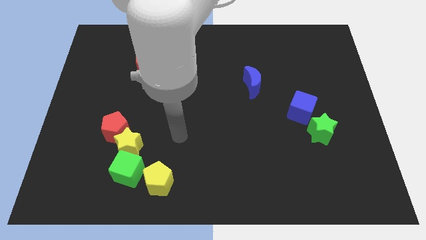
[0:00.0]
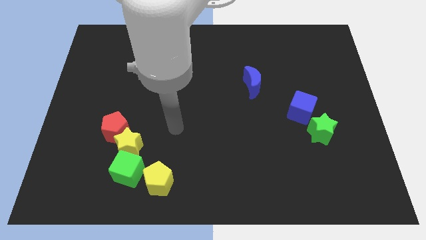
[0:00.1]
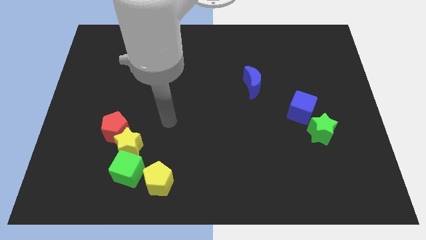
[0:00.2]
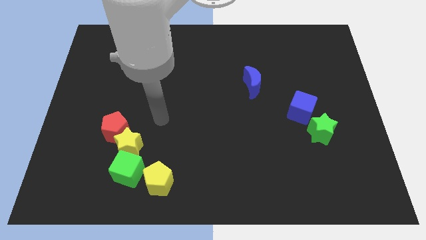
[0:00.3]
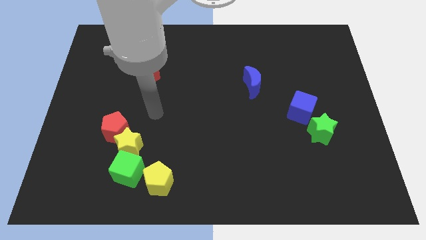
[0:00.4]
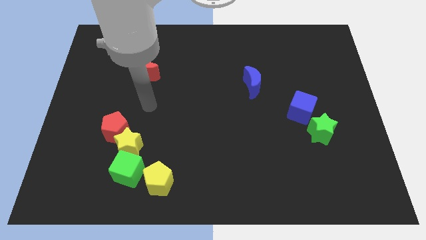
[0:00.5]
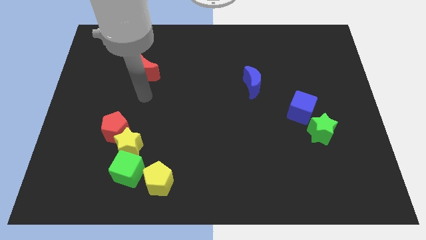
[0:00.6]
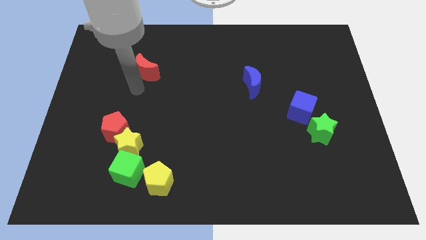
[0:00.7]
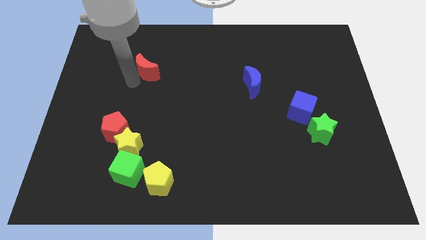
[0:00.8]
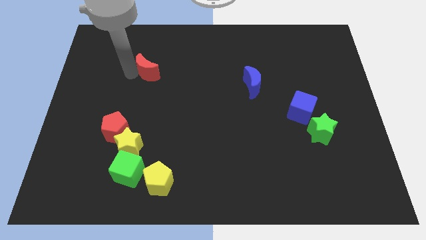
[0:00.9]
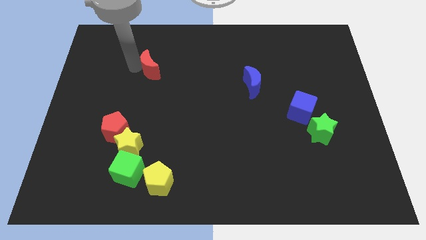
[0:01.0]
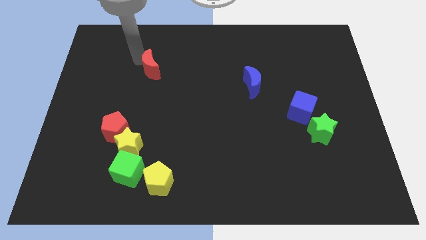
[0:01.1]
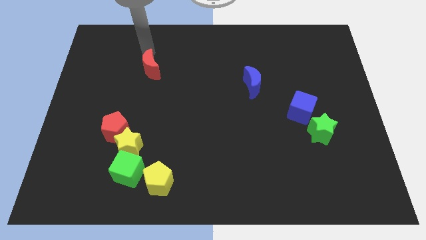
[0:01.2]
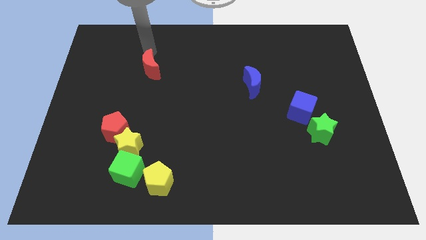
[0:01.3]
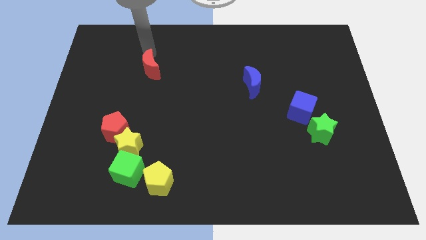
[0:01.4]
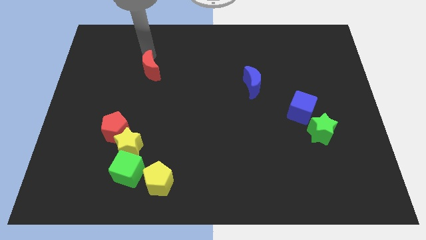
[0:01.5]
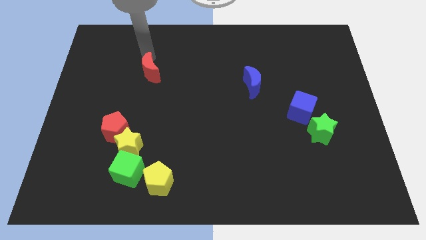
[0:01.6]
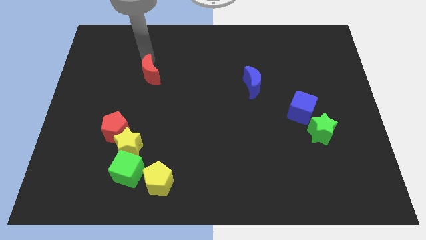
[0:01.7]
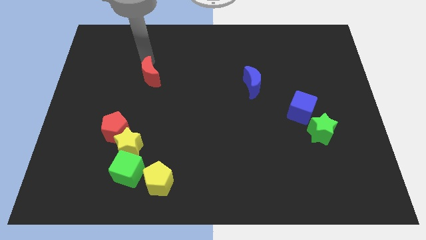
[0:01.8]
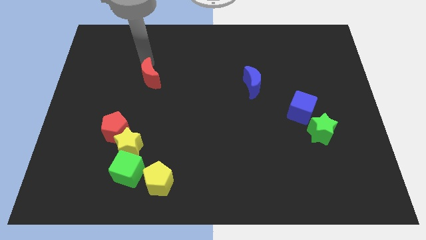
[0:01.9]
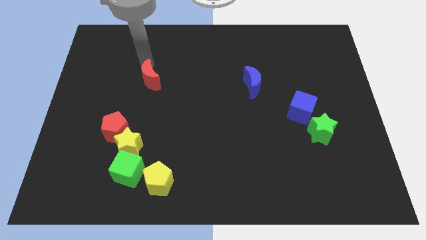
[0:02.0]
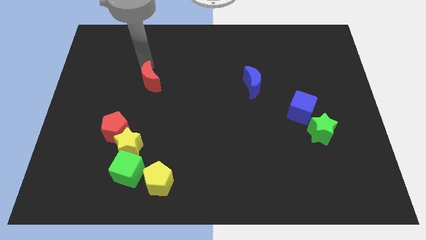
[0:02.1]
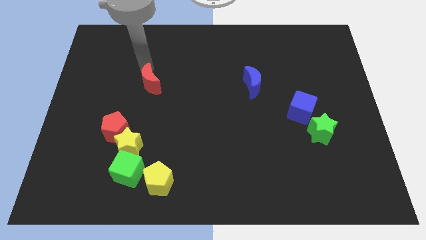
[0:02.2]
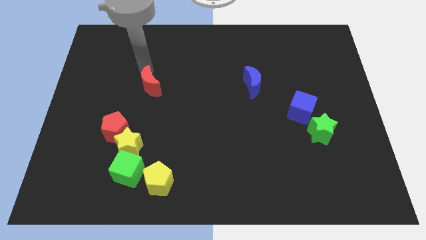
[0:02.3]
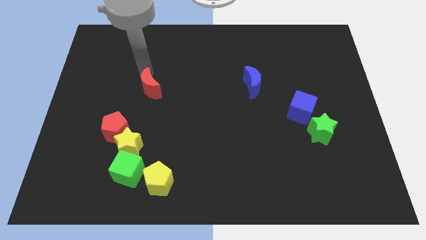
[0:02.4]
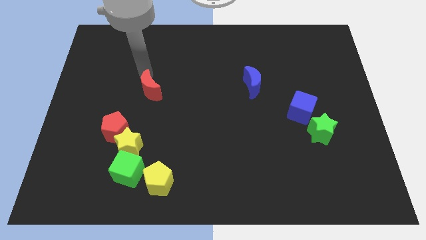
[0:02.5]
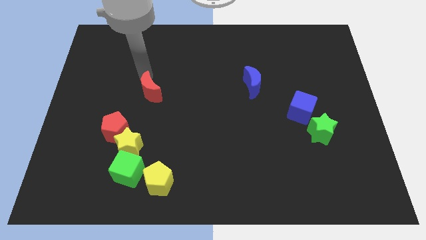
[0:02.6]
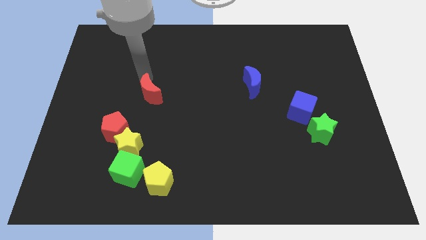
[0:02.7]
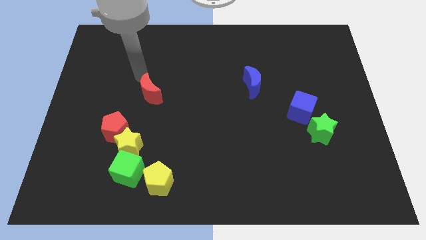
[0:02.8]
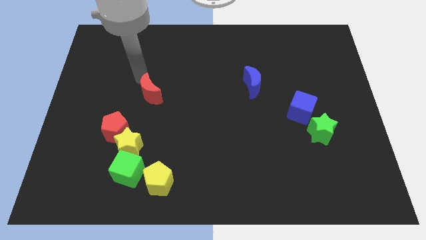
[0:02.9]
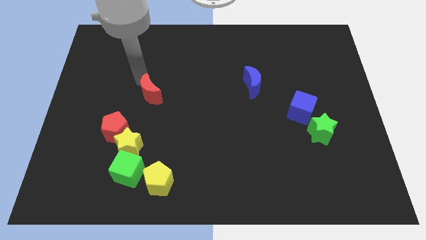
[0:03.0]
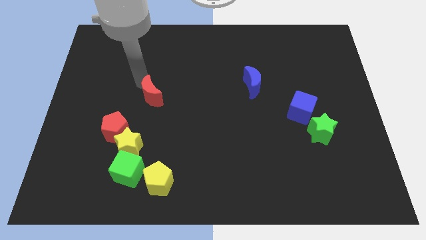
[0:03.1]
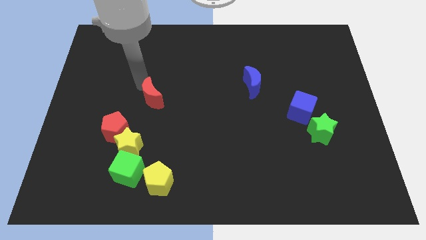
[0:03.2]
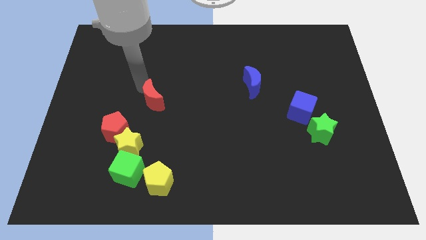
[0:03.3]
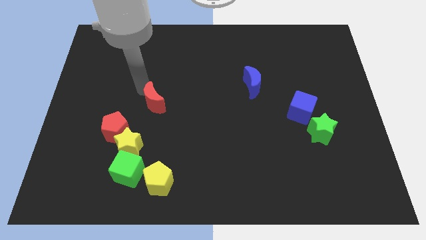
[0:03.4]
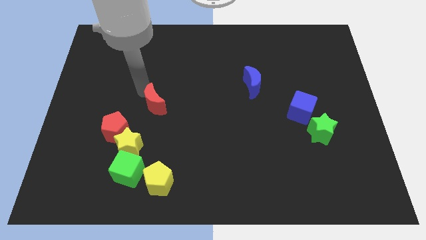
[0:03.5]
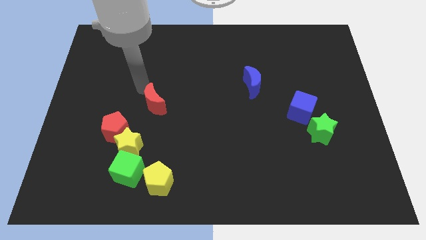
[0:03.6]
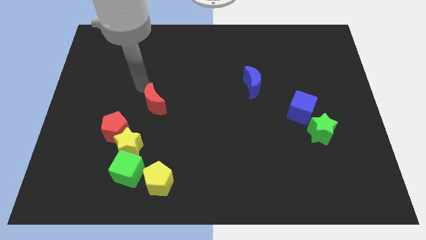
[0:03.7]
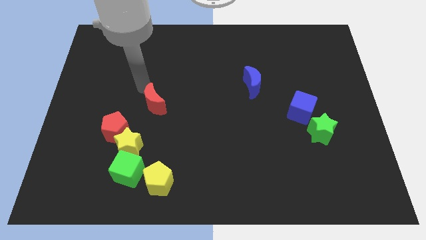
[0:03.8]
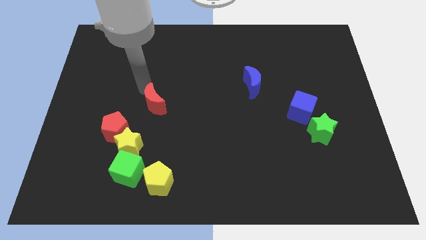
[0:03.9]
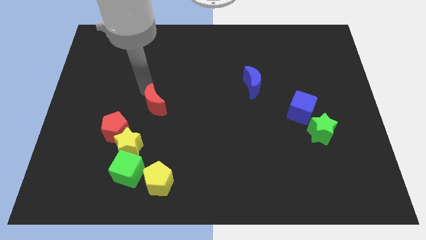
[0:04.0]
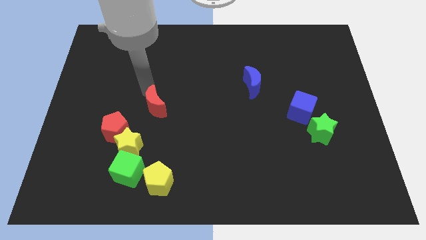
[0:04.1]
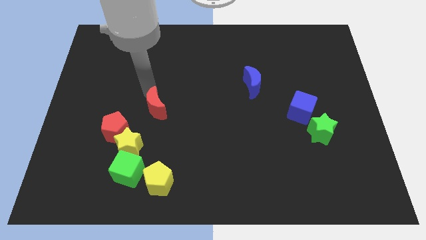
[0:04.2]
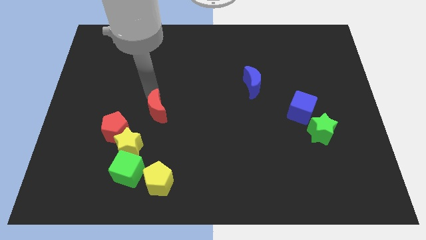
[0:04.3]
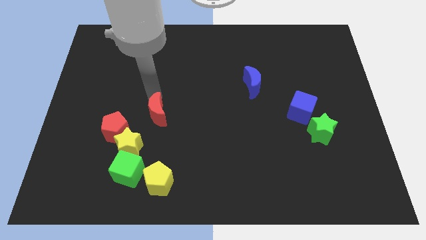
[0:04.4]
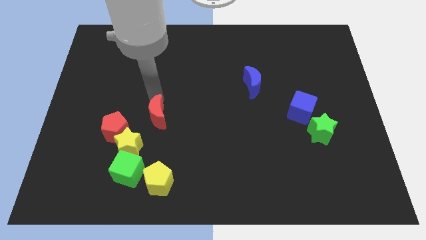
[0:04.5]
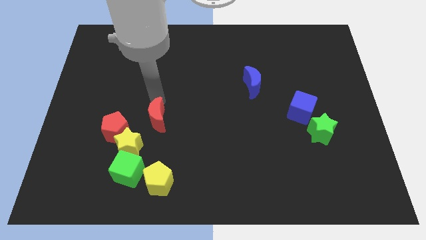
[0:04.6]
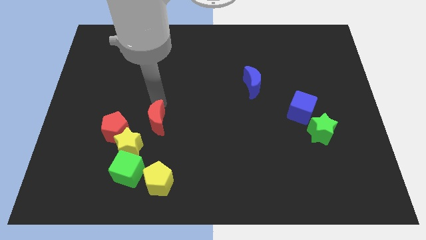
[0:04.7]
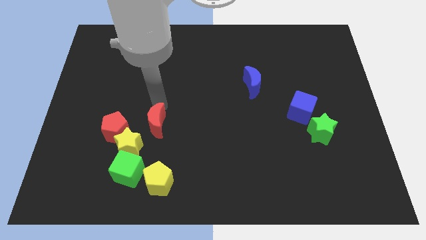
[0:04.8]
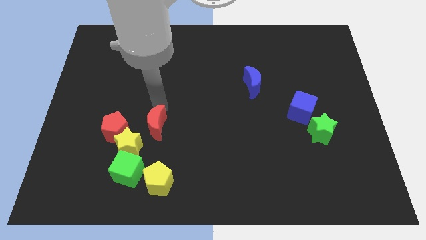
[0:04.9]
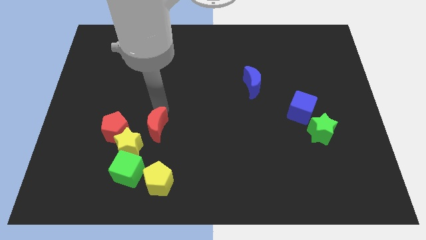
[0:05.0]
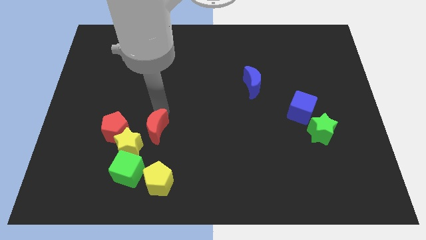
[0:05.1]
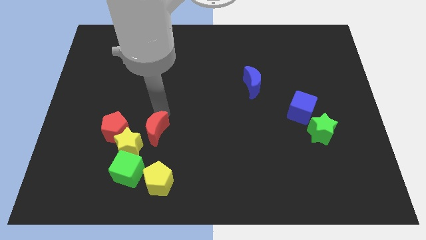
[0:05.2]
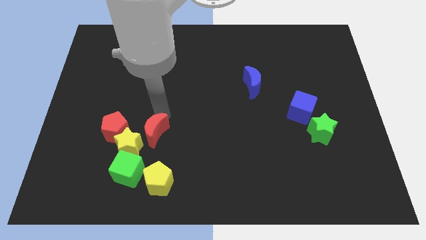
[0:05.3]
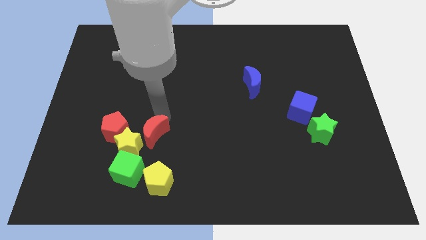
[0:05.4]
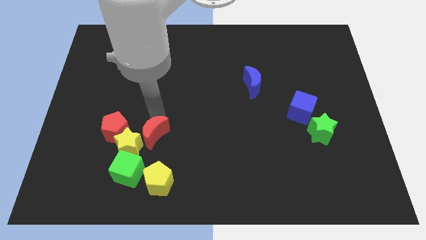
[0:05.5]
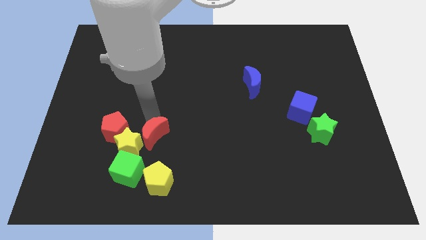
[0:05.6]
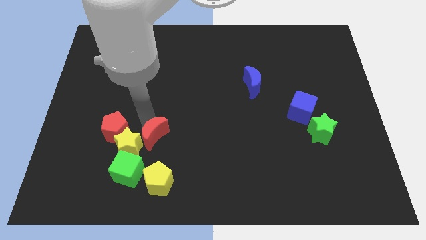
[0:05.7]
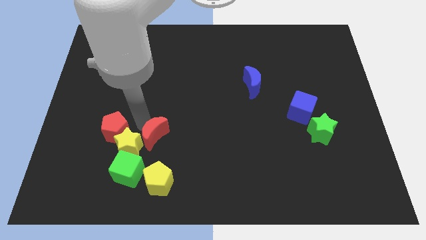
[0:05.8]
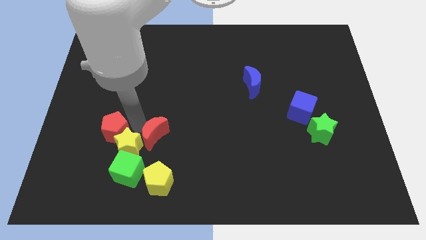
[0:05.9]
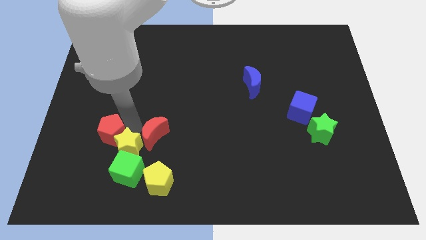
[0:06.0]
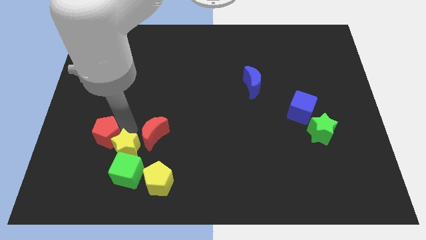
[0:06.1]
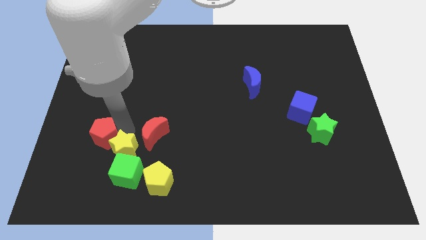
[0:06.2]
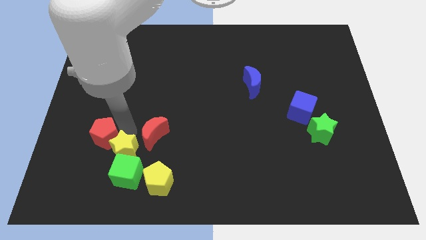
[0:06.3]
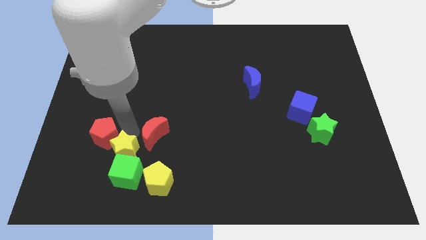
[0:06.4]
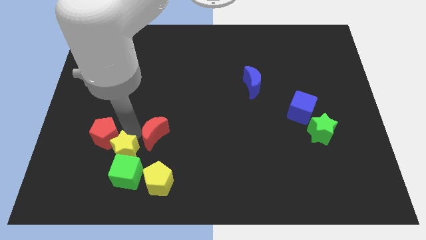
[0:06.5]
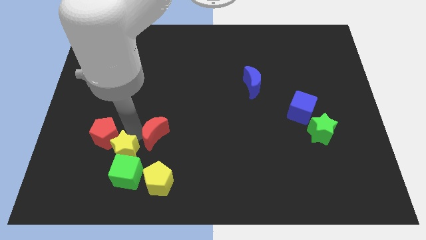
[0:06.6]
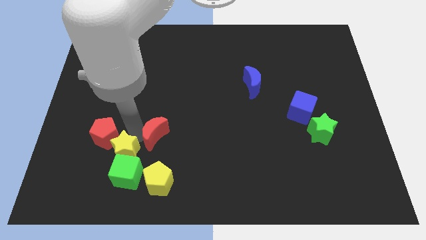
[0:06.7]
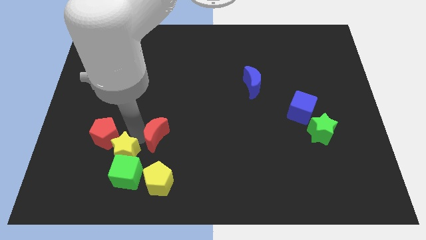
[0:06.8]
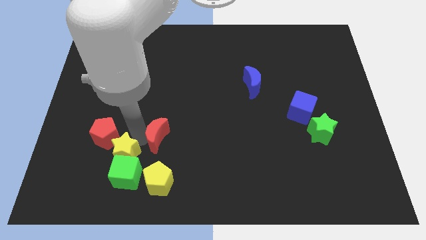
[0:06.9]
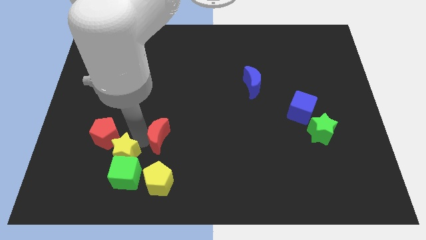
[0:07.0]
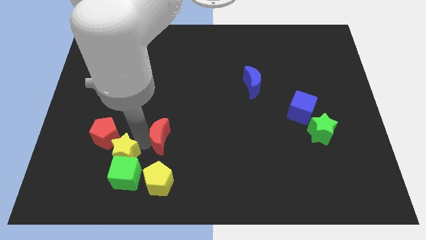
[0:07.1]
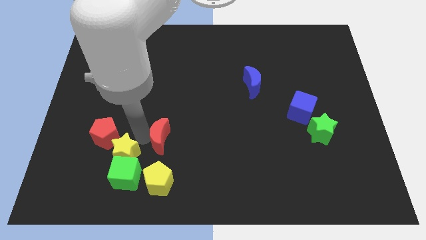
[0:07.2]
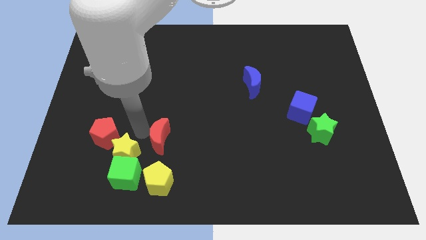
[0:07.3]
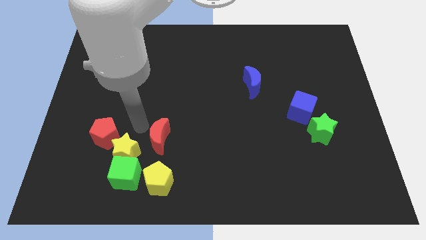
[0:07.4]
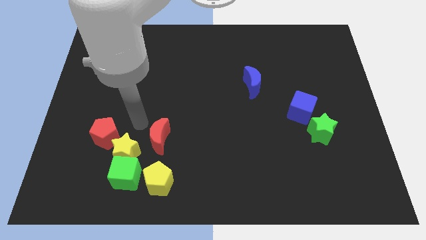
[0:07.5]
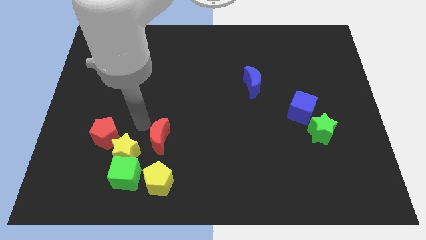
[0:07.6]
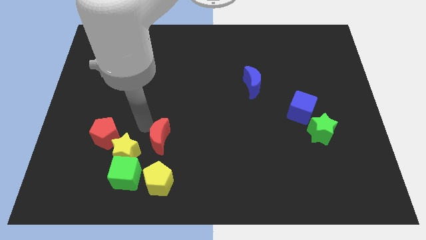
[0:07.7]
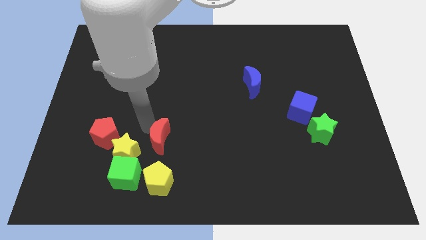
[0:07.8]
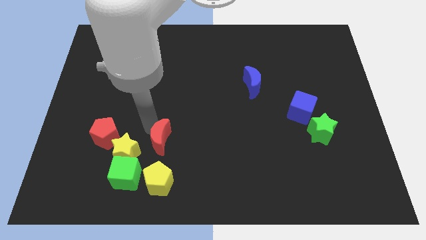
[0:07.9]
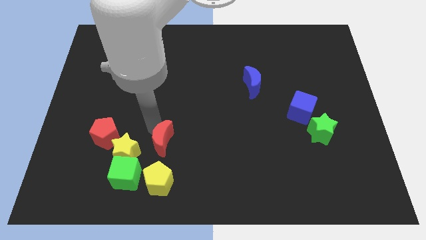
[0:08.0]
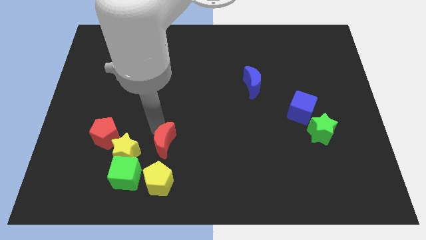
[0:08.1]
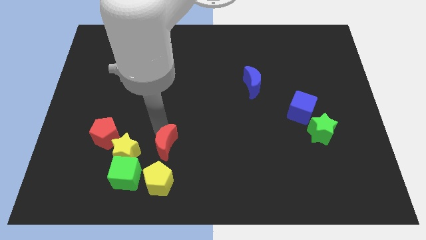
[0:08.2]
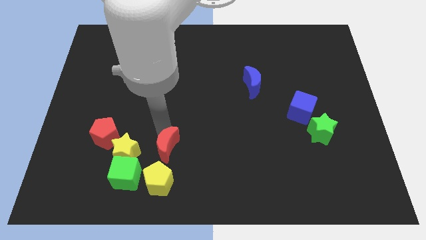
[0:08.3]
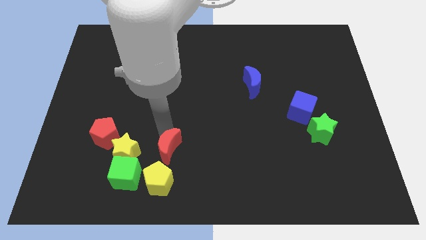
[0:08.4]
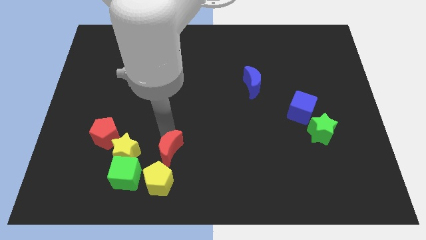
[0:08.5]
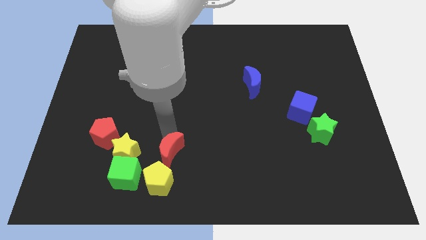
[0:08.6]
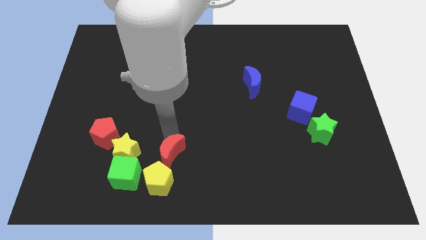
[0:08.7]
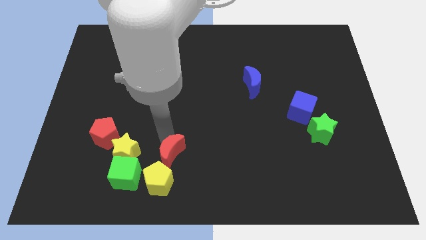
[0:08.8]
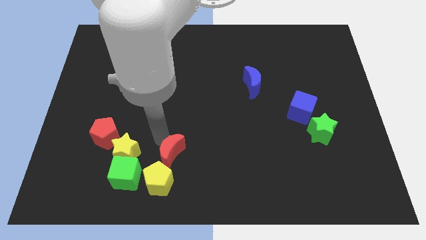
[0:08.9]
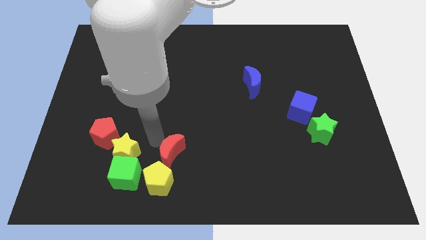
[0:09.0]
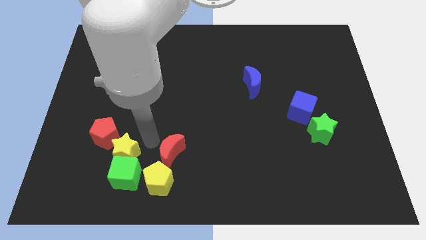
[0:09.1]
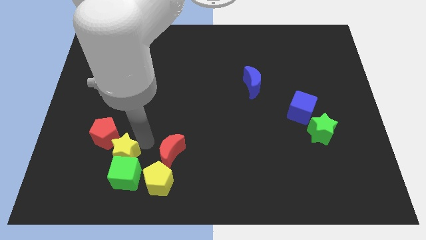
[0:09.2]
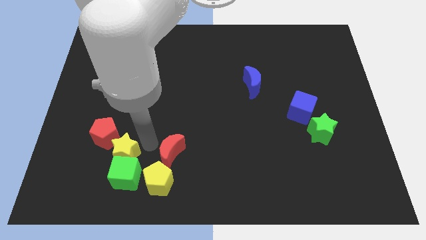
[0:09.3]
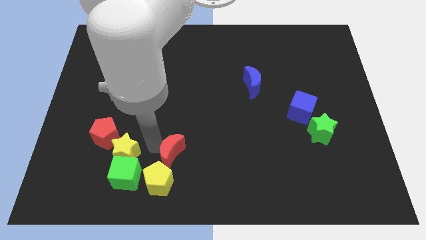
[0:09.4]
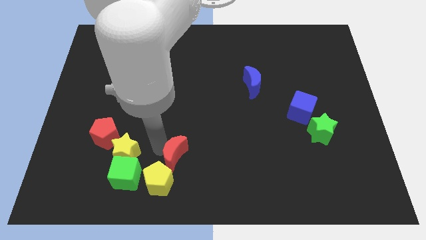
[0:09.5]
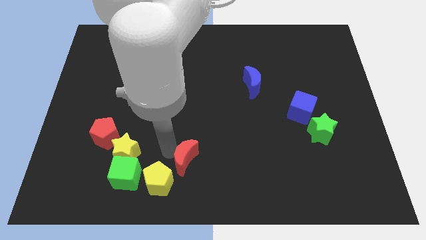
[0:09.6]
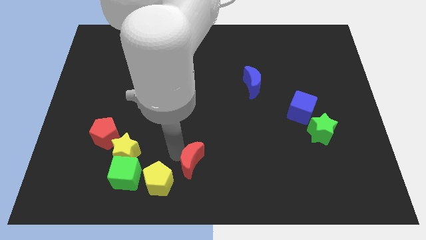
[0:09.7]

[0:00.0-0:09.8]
put the red moon right of the yellow pentagon
